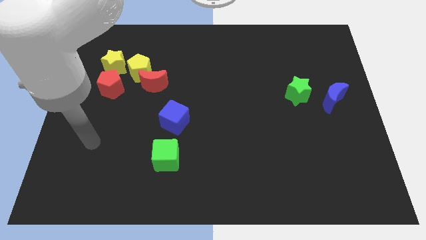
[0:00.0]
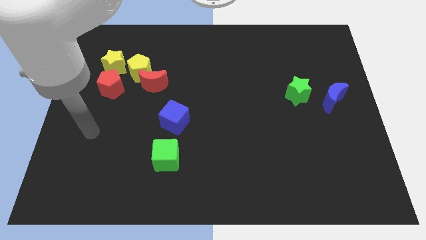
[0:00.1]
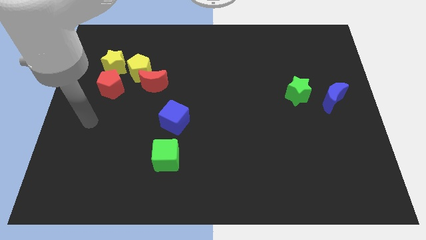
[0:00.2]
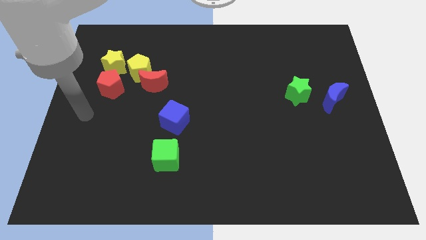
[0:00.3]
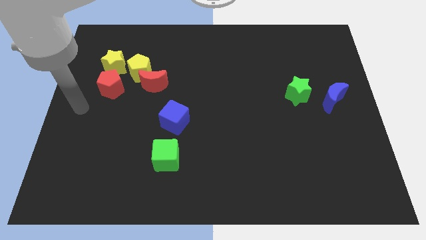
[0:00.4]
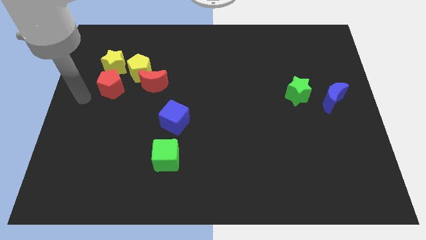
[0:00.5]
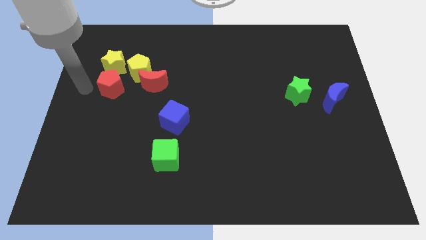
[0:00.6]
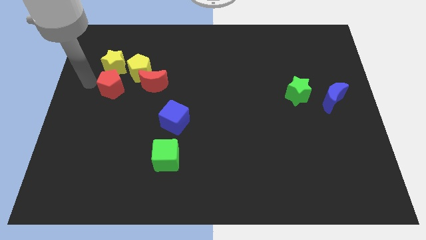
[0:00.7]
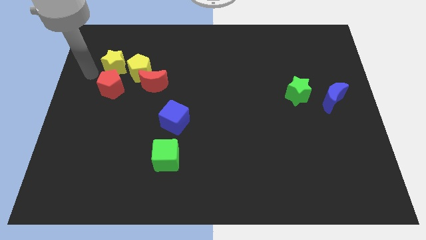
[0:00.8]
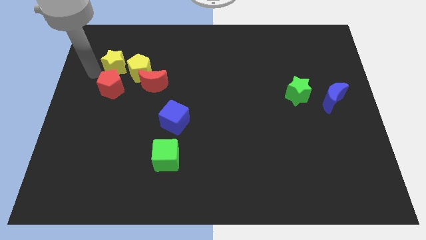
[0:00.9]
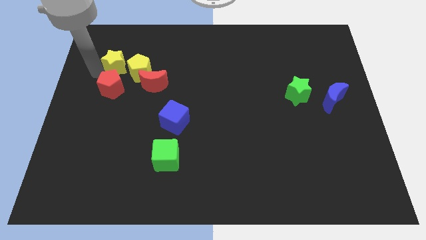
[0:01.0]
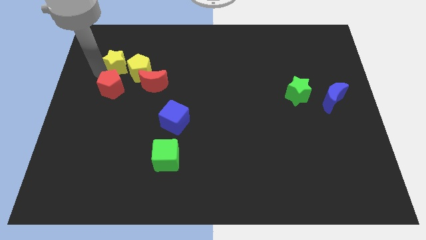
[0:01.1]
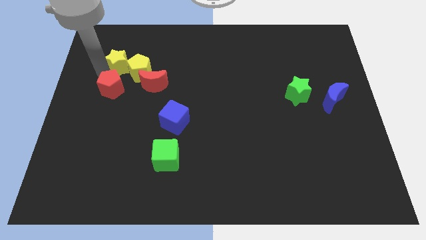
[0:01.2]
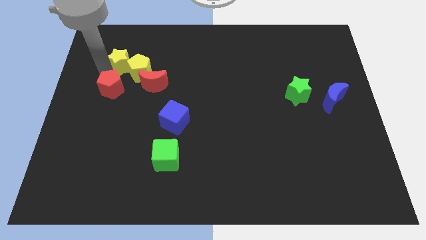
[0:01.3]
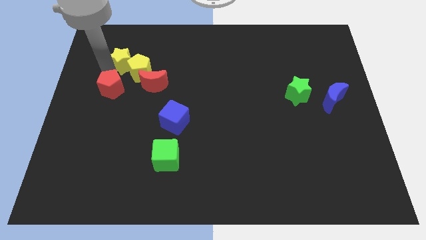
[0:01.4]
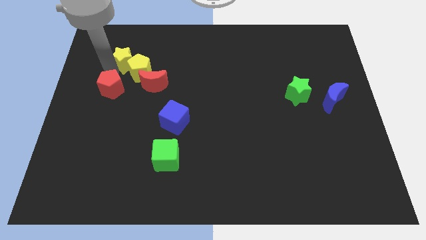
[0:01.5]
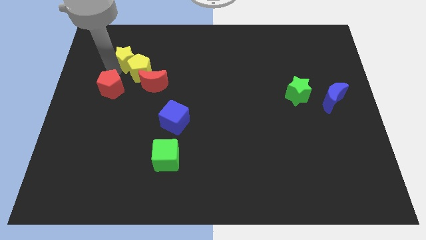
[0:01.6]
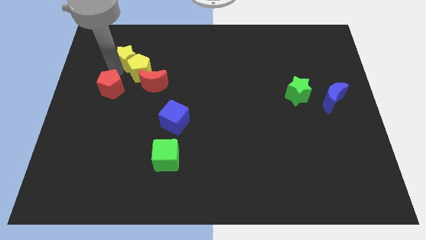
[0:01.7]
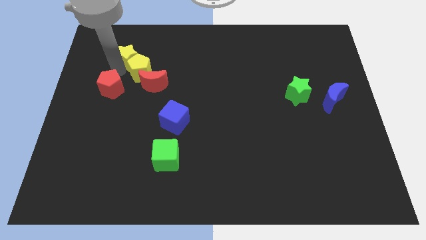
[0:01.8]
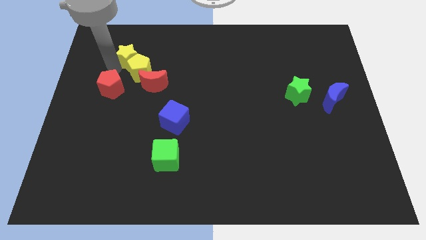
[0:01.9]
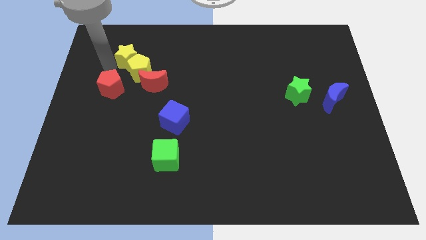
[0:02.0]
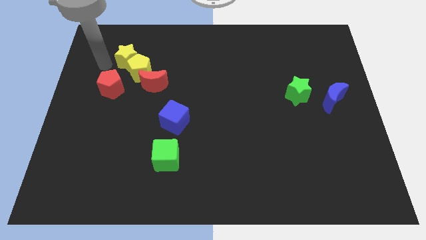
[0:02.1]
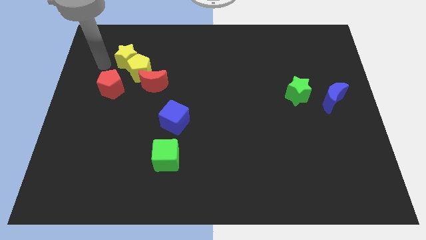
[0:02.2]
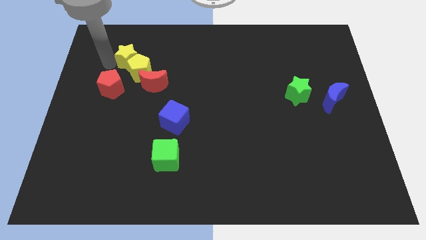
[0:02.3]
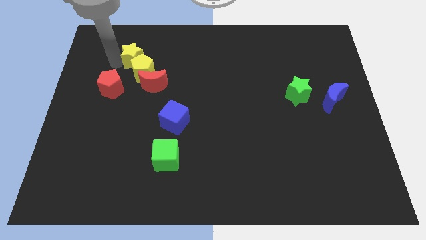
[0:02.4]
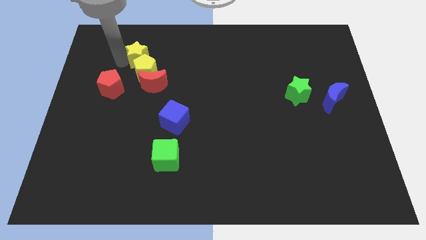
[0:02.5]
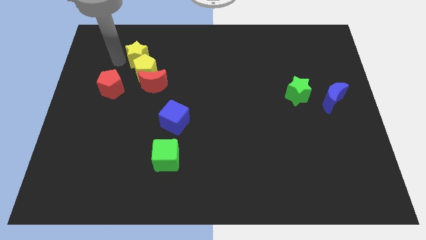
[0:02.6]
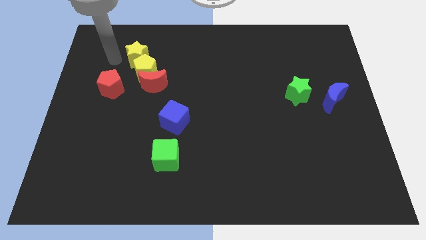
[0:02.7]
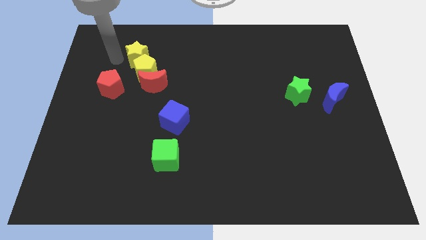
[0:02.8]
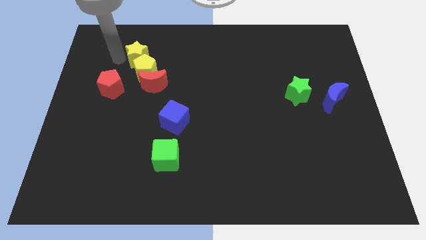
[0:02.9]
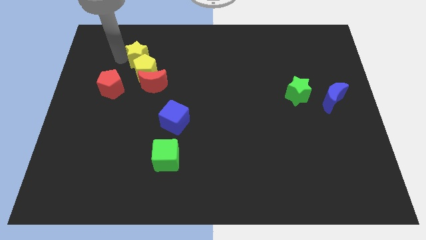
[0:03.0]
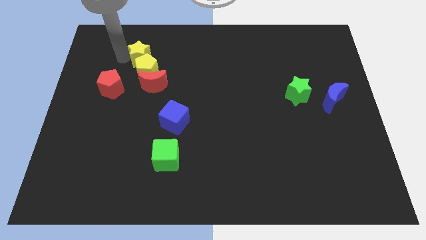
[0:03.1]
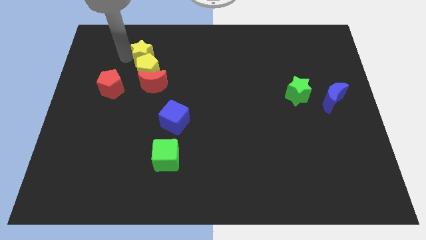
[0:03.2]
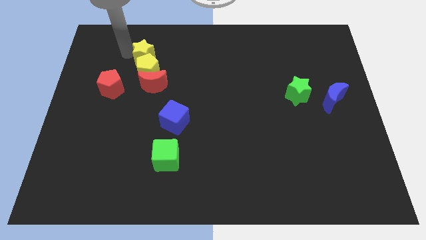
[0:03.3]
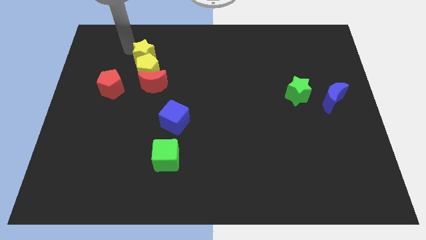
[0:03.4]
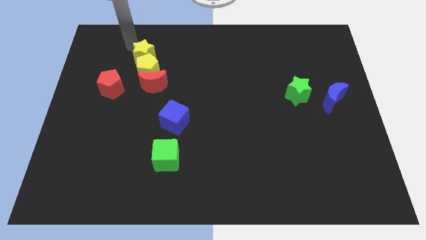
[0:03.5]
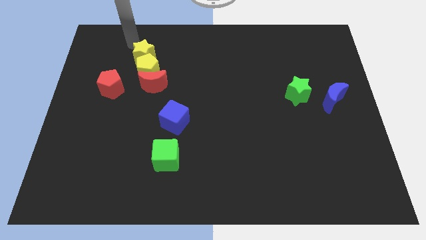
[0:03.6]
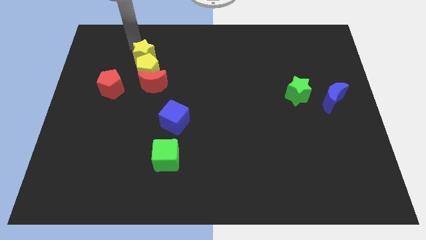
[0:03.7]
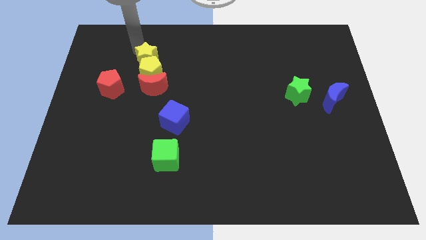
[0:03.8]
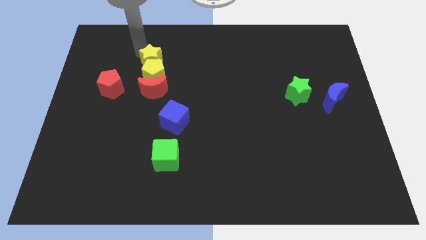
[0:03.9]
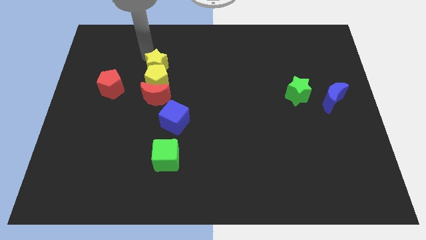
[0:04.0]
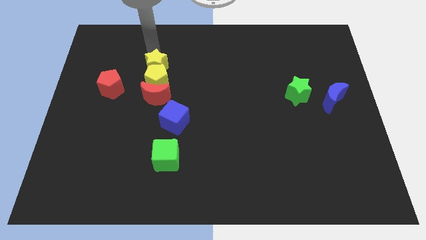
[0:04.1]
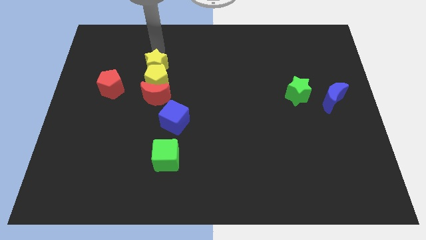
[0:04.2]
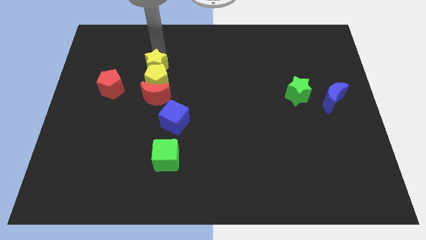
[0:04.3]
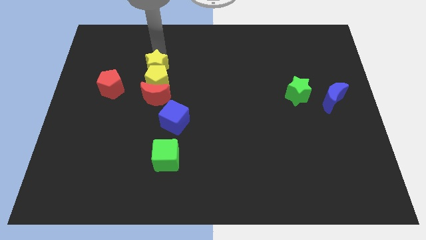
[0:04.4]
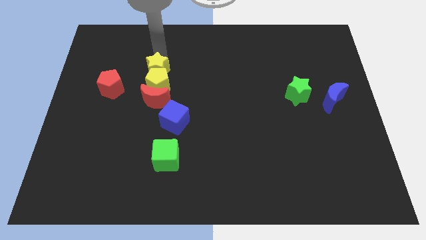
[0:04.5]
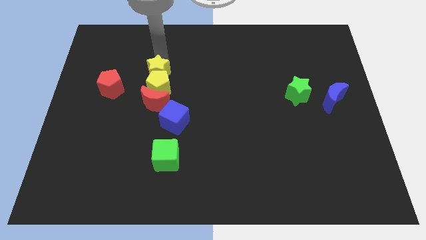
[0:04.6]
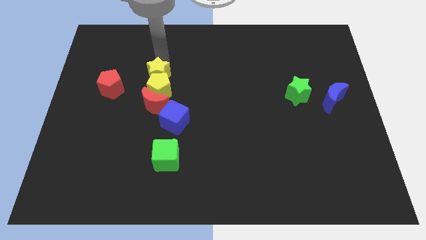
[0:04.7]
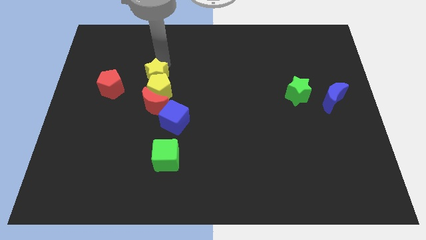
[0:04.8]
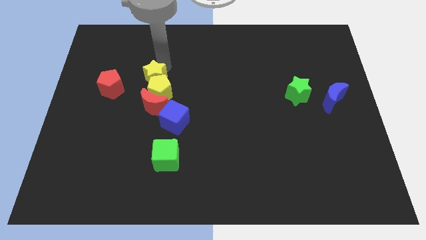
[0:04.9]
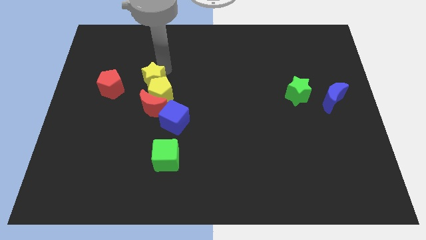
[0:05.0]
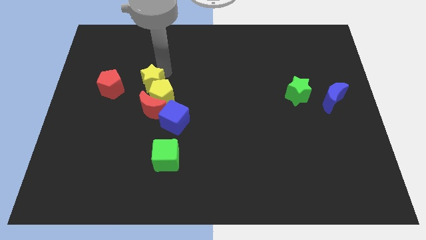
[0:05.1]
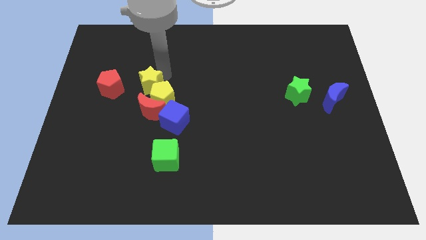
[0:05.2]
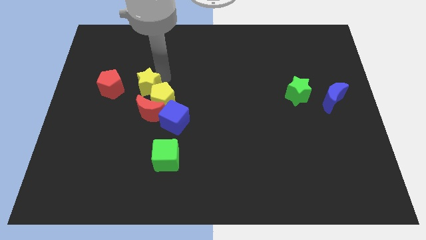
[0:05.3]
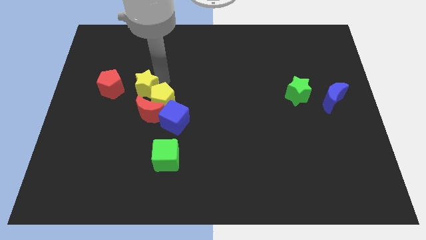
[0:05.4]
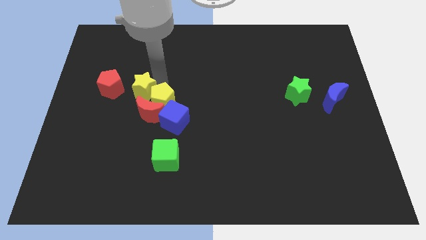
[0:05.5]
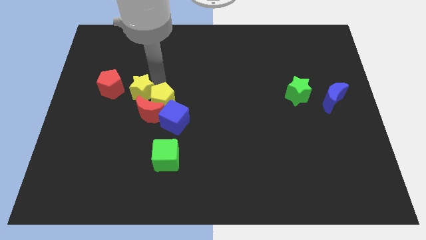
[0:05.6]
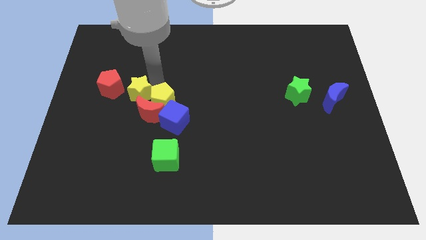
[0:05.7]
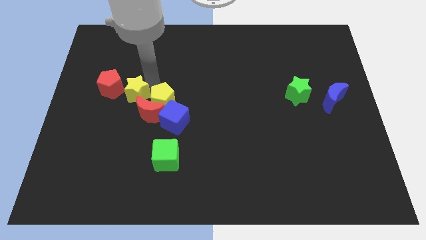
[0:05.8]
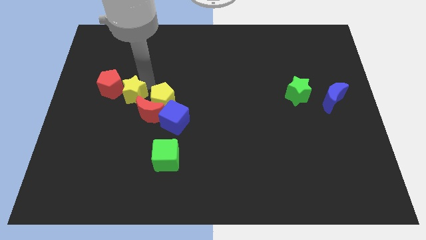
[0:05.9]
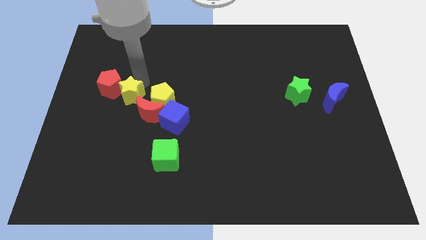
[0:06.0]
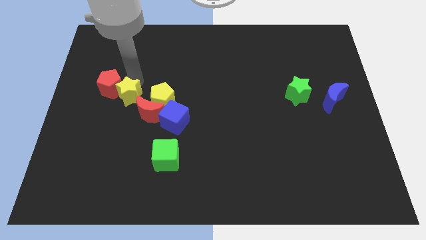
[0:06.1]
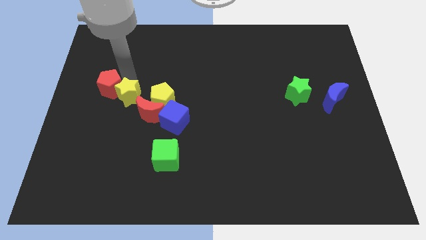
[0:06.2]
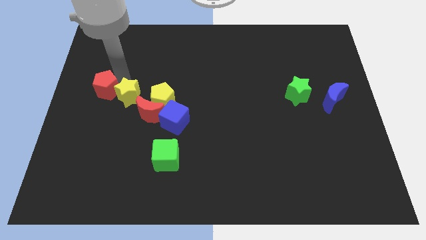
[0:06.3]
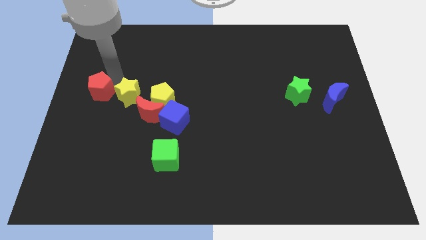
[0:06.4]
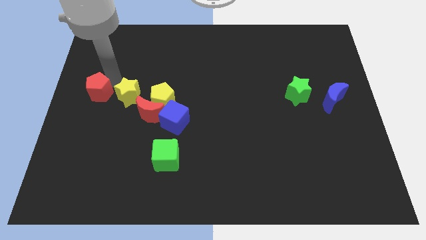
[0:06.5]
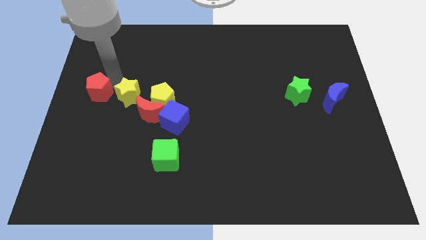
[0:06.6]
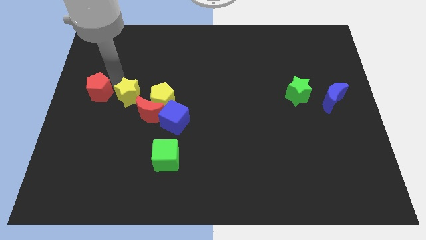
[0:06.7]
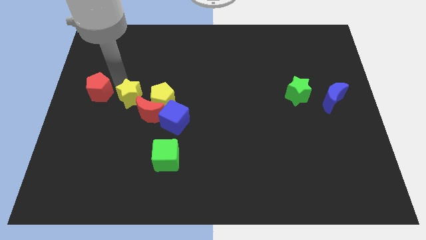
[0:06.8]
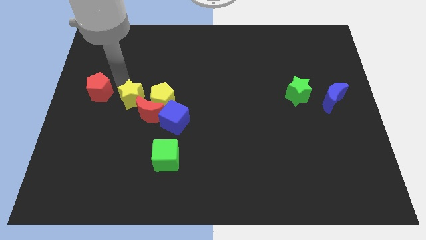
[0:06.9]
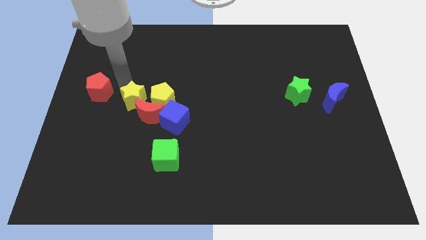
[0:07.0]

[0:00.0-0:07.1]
push the yellow star towards the red moon
